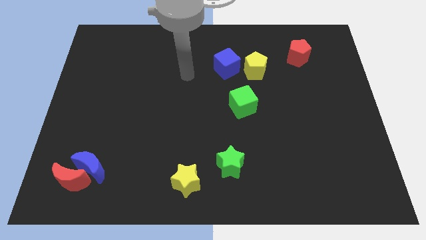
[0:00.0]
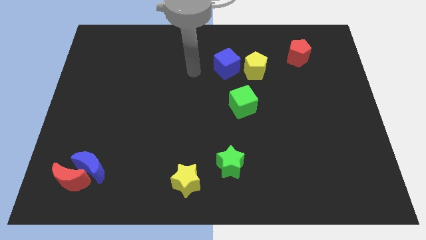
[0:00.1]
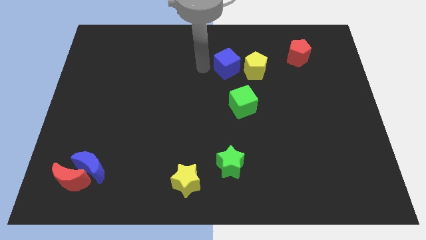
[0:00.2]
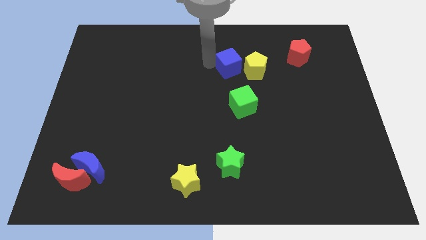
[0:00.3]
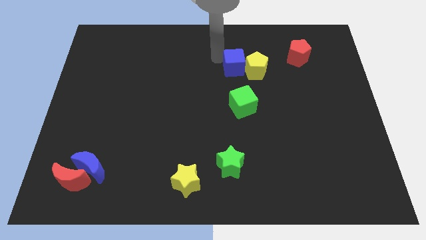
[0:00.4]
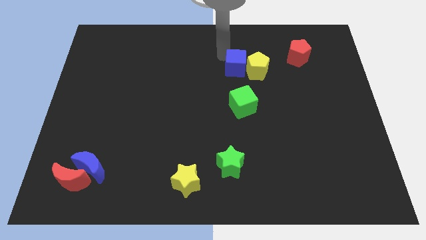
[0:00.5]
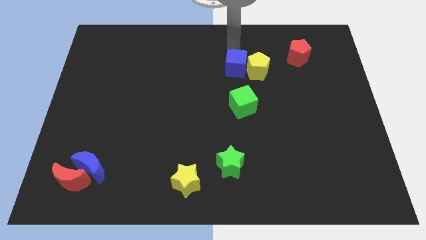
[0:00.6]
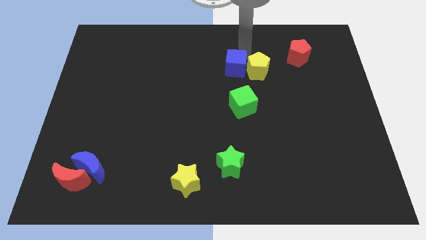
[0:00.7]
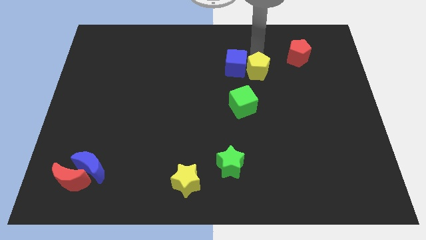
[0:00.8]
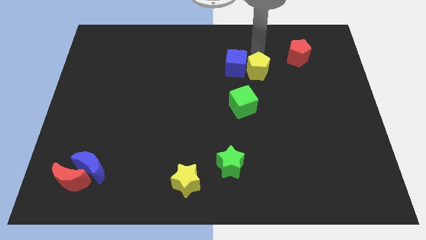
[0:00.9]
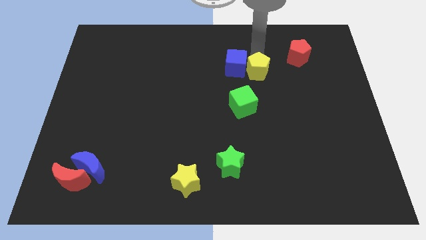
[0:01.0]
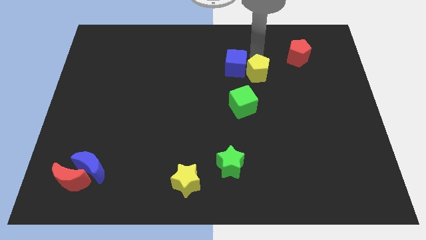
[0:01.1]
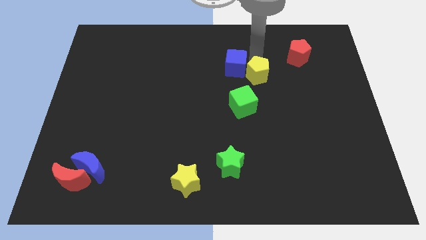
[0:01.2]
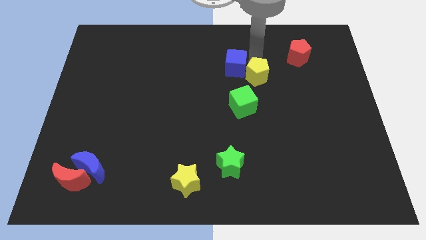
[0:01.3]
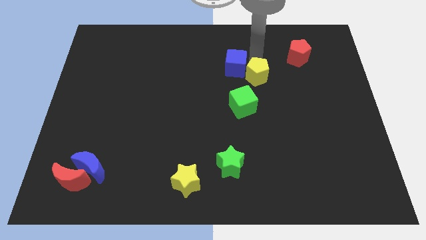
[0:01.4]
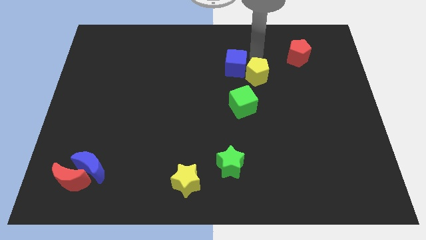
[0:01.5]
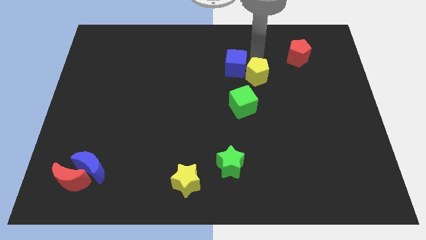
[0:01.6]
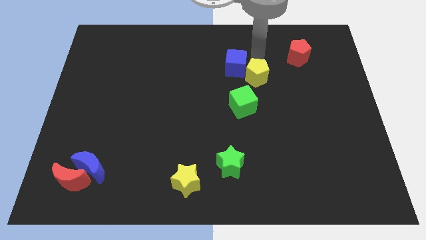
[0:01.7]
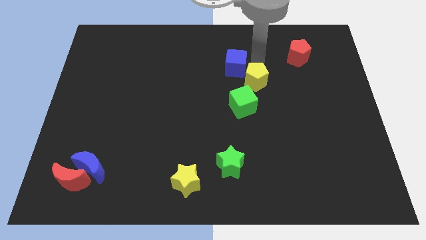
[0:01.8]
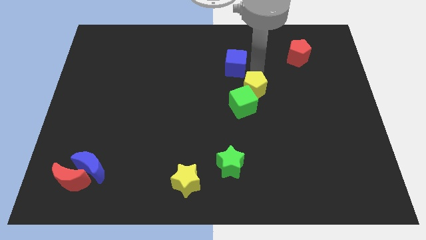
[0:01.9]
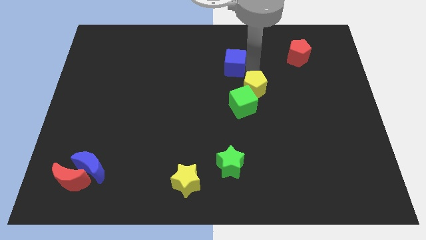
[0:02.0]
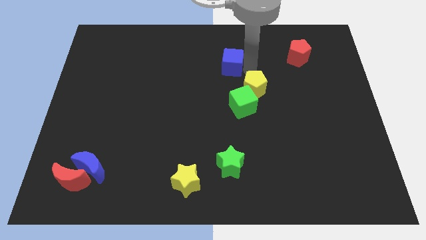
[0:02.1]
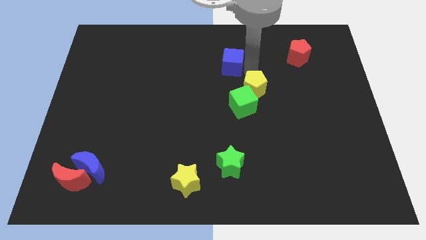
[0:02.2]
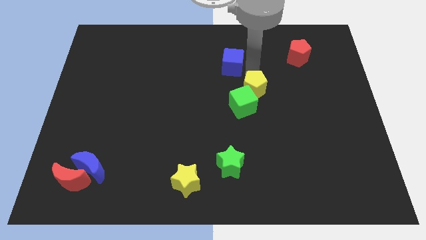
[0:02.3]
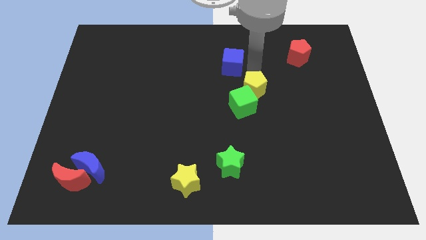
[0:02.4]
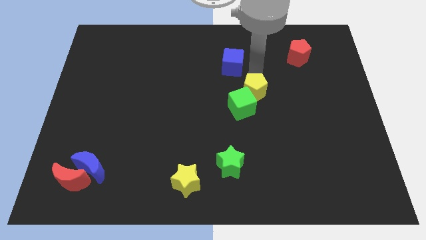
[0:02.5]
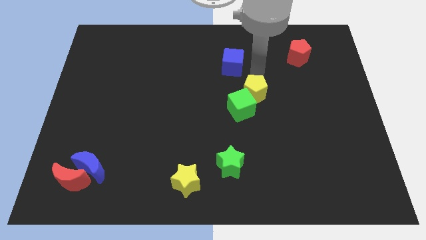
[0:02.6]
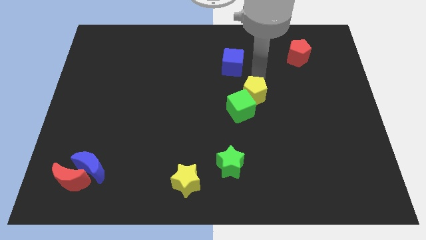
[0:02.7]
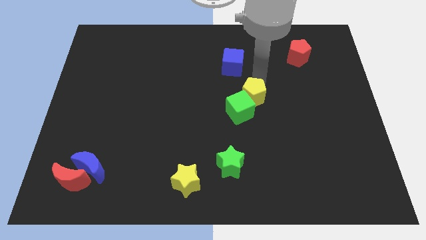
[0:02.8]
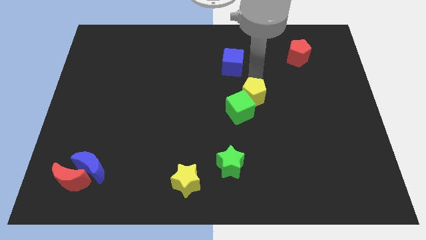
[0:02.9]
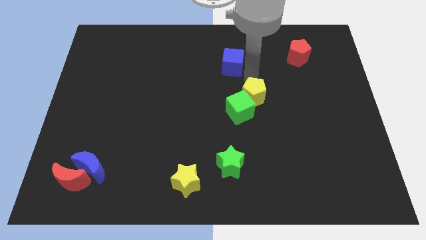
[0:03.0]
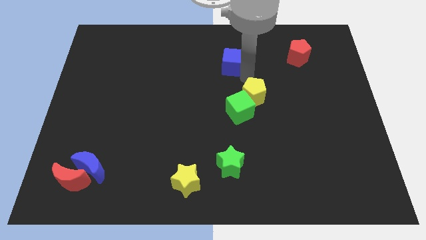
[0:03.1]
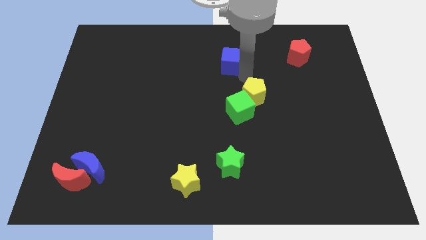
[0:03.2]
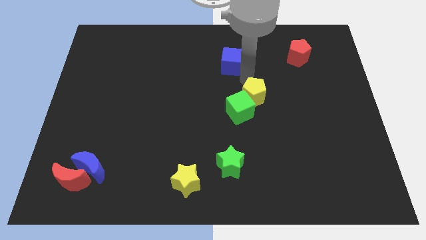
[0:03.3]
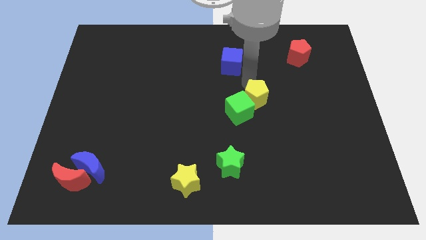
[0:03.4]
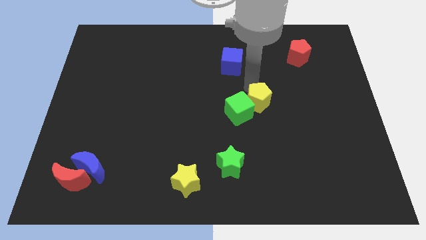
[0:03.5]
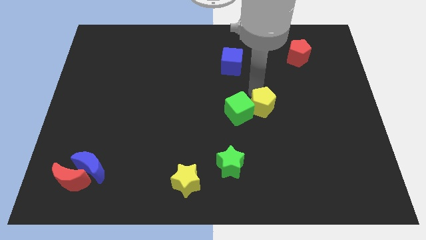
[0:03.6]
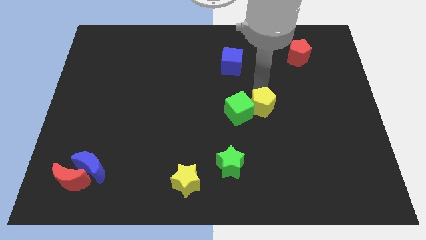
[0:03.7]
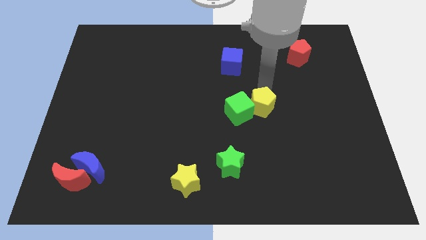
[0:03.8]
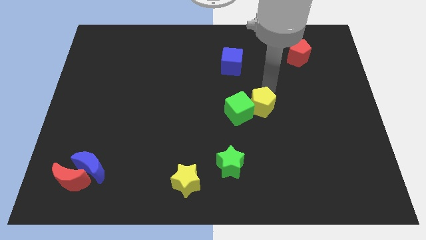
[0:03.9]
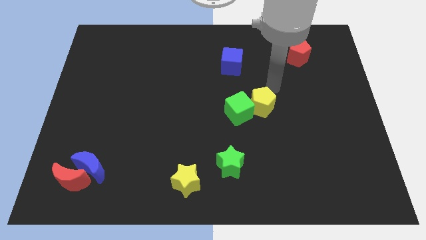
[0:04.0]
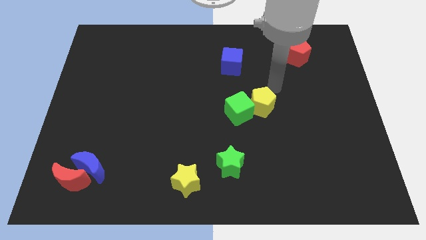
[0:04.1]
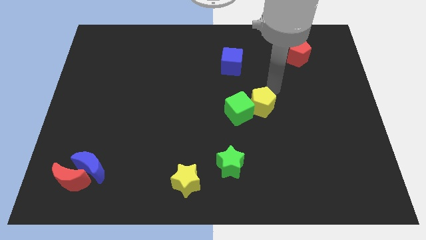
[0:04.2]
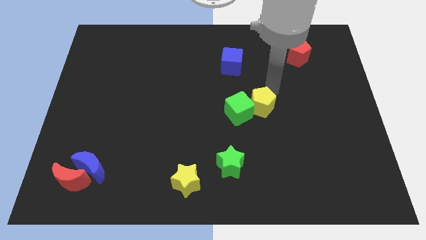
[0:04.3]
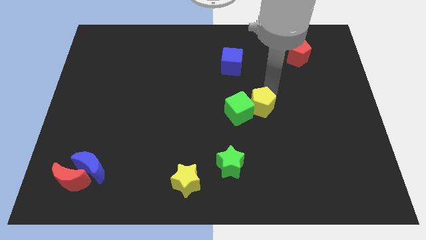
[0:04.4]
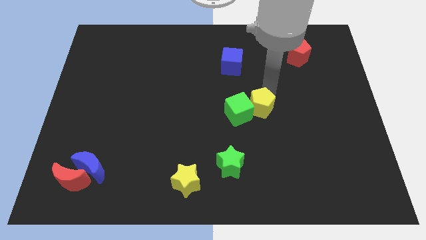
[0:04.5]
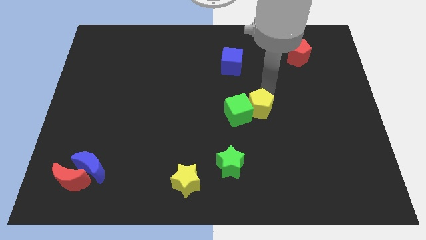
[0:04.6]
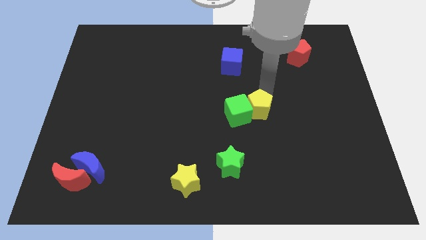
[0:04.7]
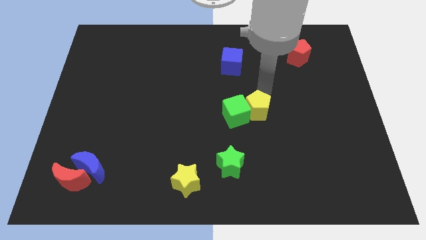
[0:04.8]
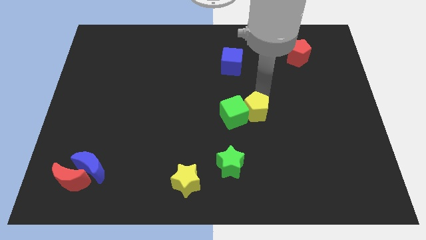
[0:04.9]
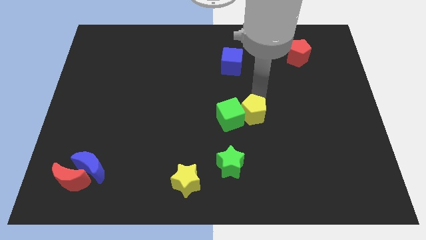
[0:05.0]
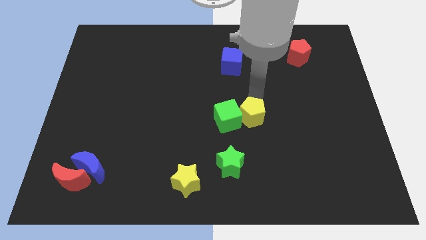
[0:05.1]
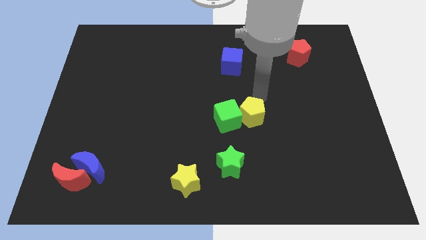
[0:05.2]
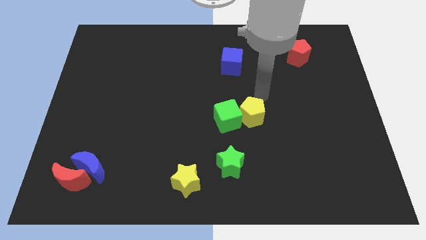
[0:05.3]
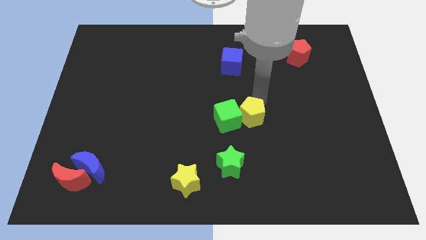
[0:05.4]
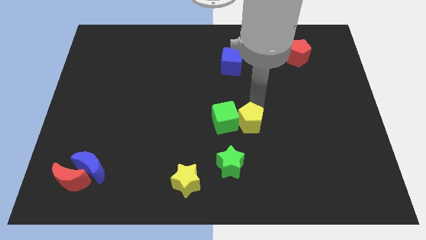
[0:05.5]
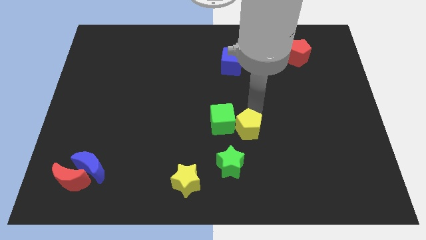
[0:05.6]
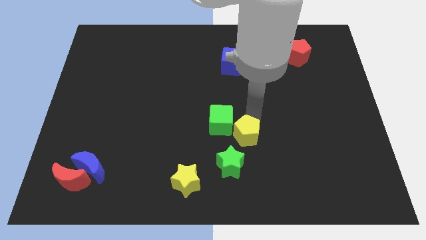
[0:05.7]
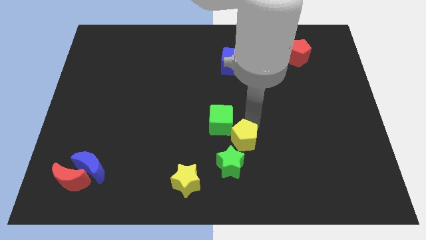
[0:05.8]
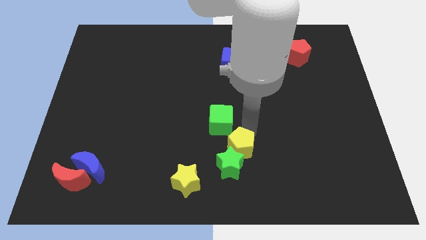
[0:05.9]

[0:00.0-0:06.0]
push the yellow pentagon close to the green star
